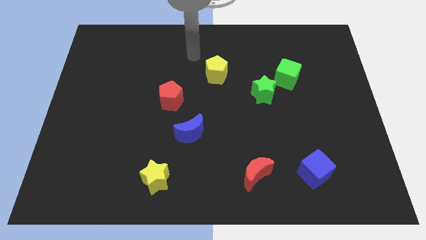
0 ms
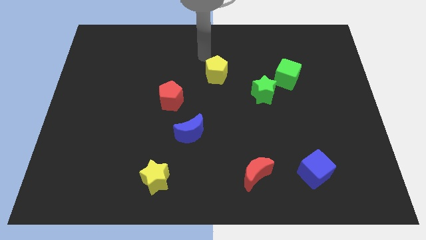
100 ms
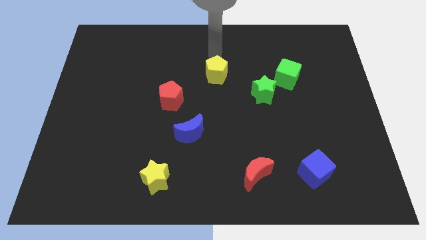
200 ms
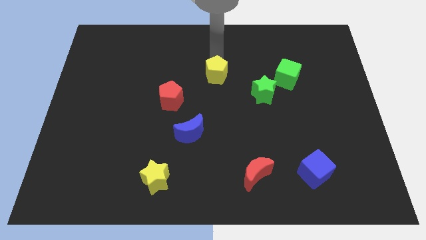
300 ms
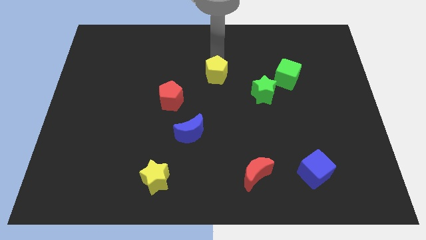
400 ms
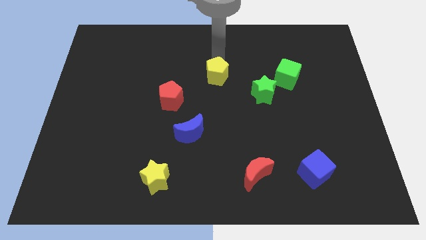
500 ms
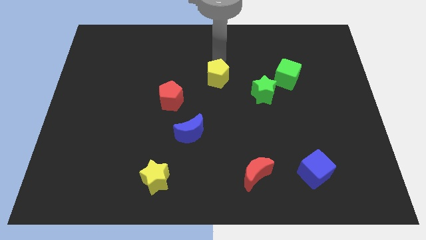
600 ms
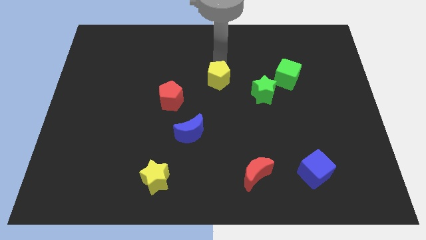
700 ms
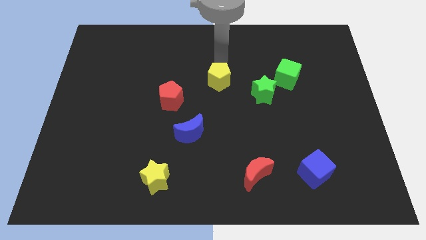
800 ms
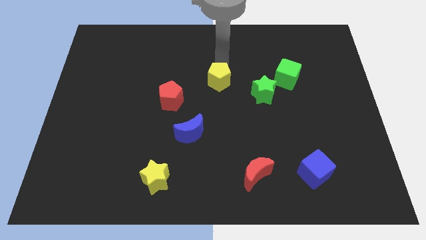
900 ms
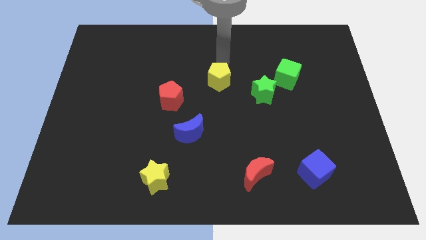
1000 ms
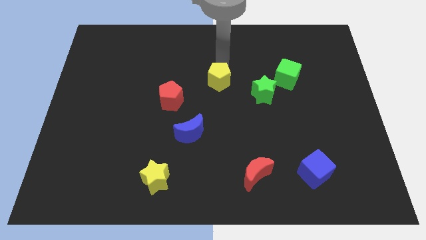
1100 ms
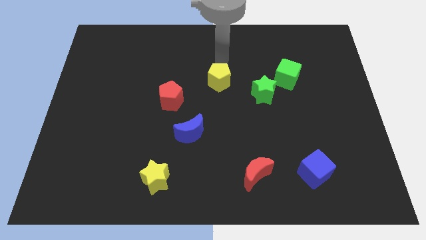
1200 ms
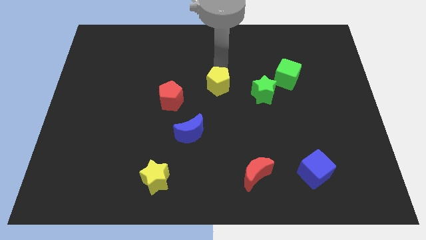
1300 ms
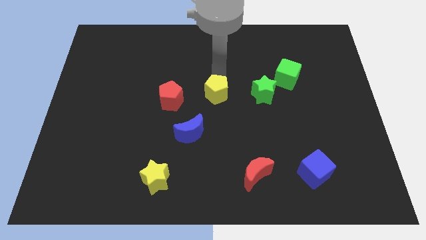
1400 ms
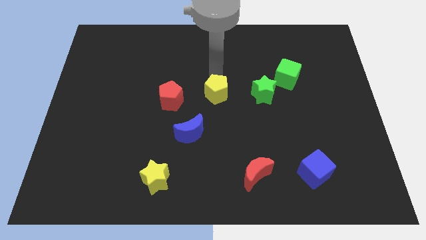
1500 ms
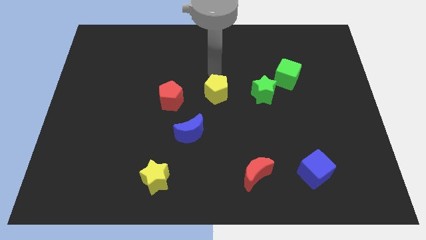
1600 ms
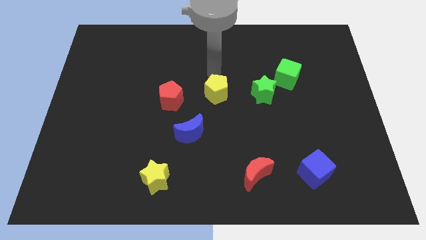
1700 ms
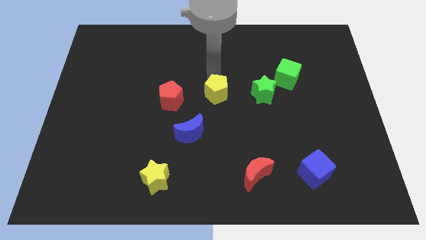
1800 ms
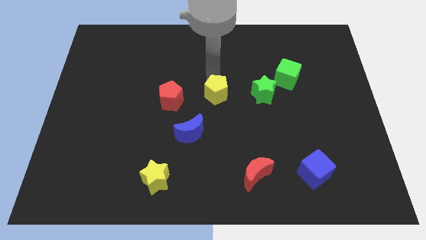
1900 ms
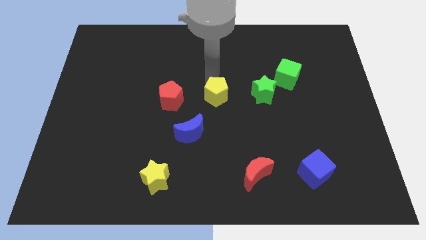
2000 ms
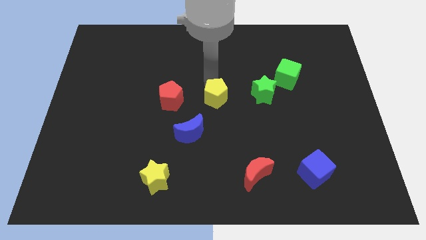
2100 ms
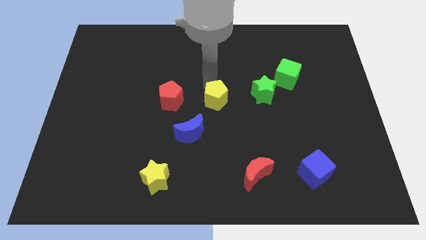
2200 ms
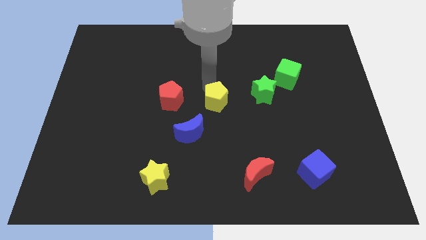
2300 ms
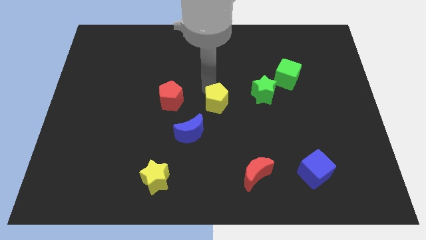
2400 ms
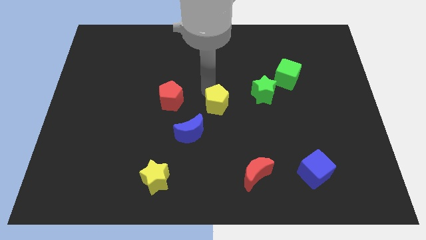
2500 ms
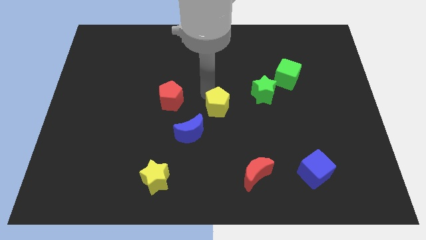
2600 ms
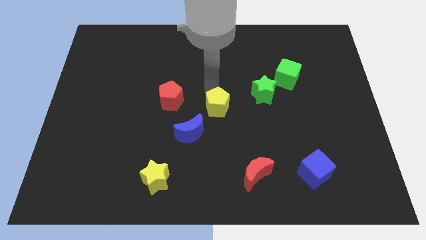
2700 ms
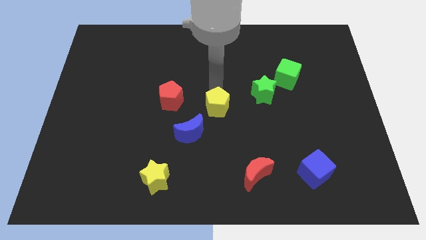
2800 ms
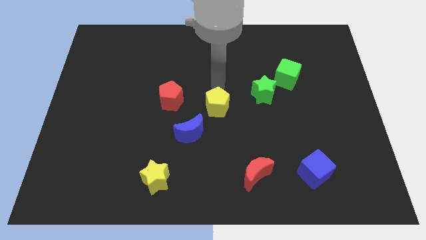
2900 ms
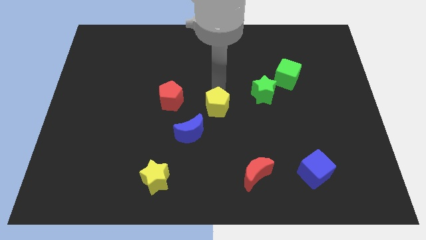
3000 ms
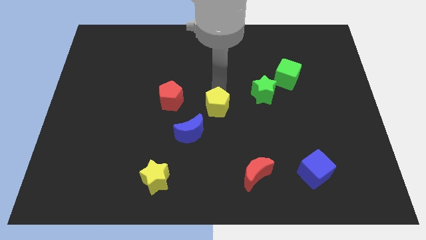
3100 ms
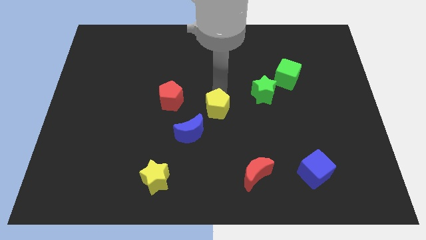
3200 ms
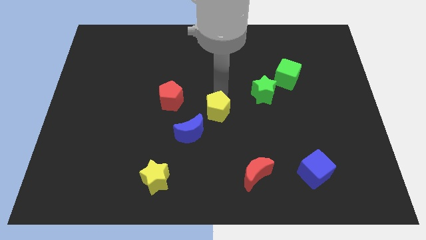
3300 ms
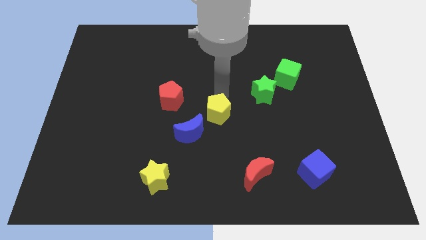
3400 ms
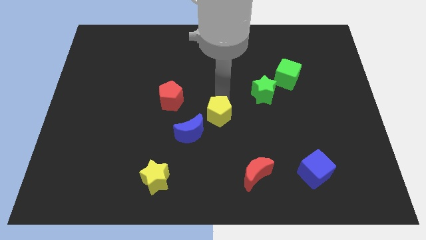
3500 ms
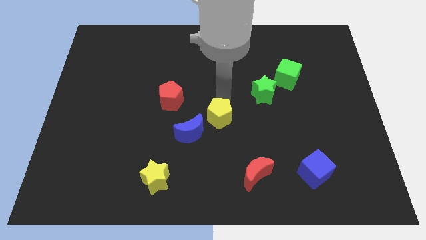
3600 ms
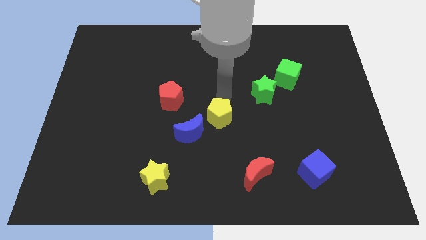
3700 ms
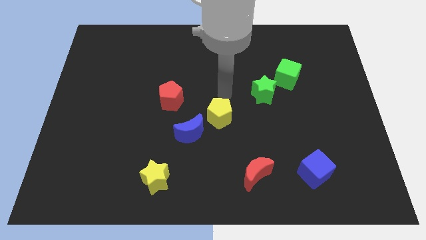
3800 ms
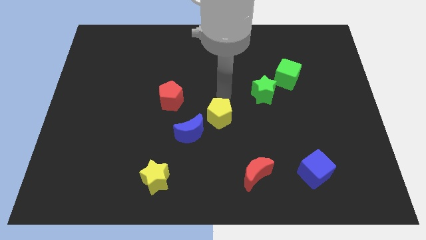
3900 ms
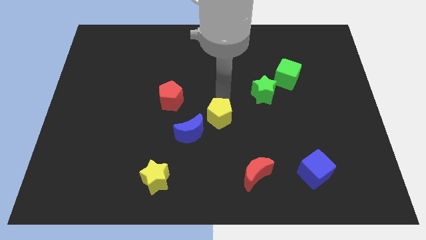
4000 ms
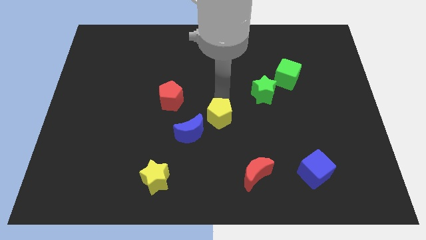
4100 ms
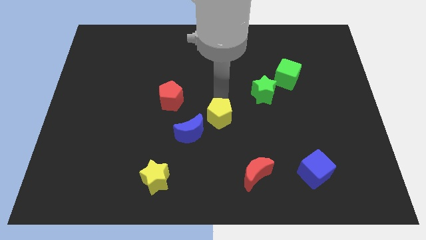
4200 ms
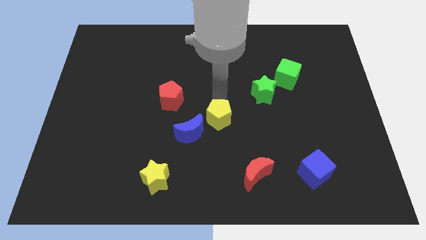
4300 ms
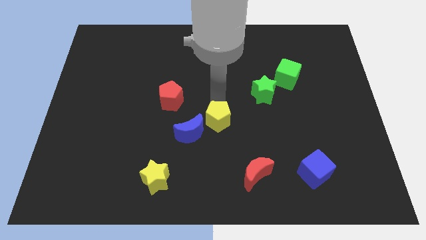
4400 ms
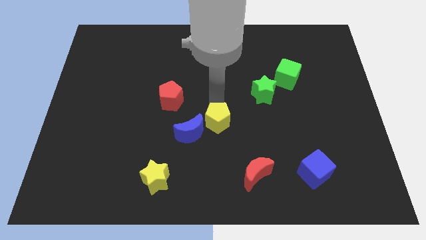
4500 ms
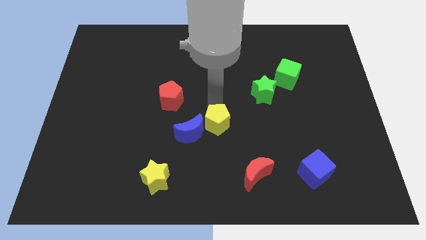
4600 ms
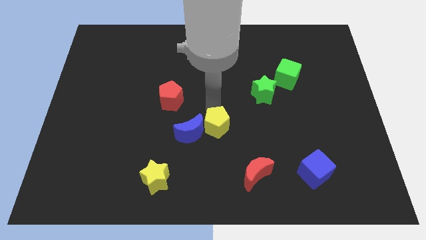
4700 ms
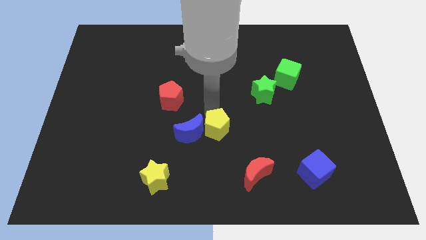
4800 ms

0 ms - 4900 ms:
move the yellow pentagon diagonally down and to the right of the blue moon

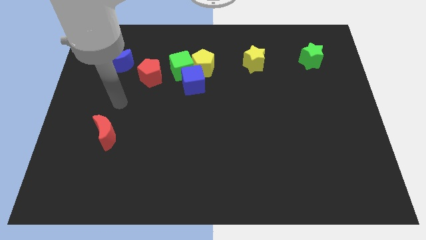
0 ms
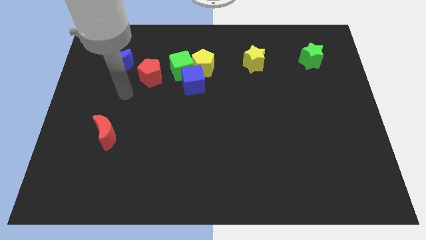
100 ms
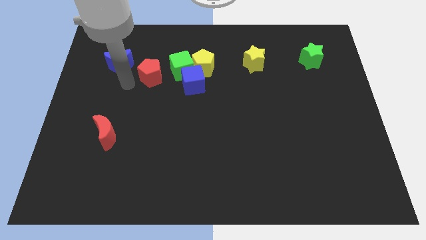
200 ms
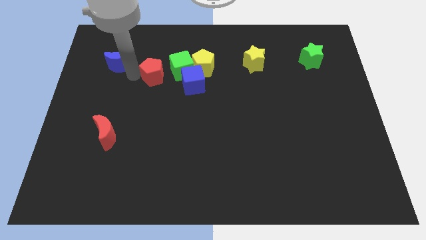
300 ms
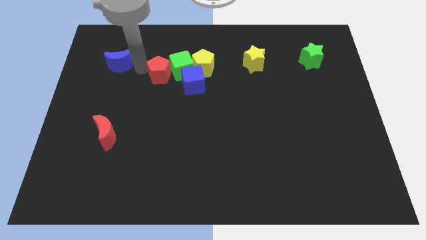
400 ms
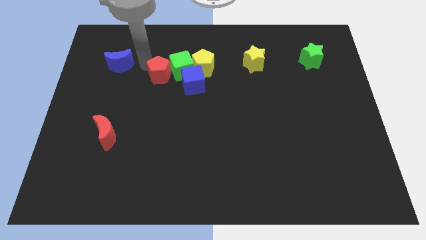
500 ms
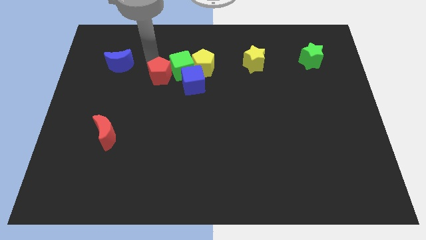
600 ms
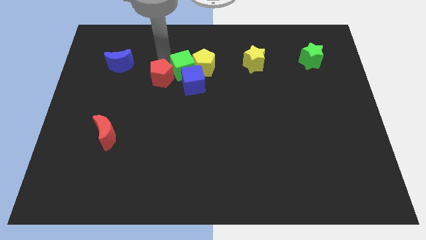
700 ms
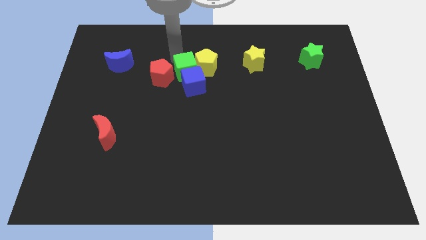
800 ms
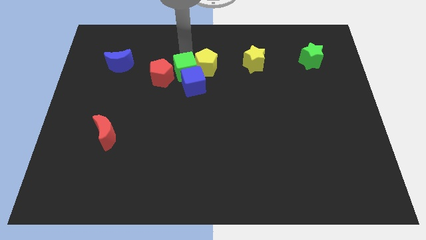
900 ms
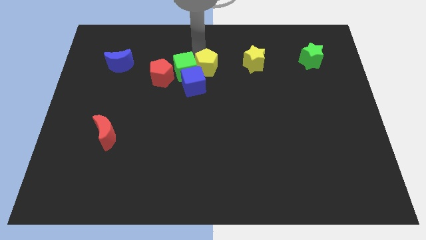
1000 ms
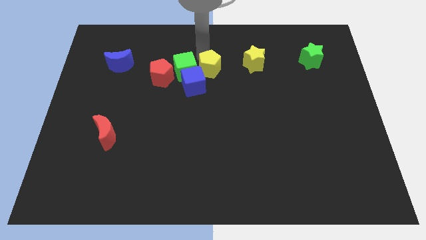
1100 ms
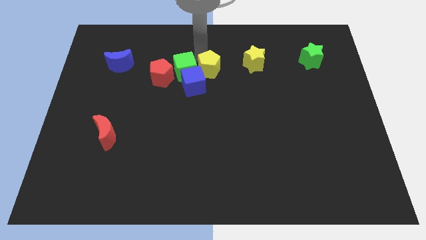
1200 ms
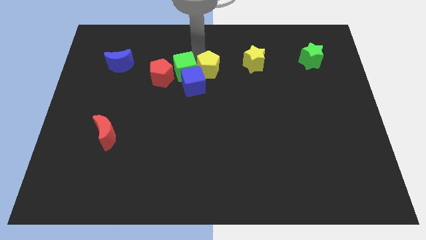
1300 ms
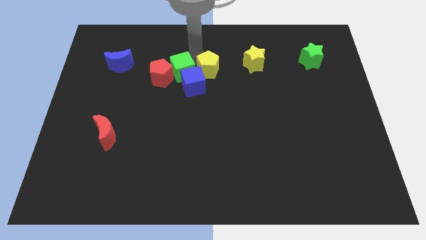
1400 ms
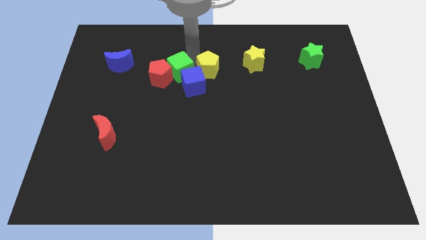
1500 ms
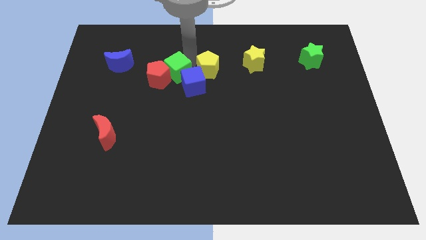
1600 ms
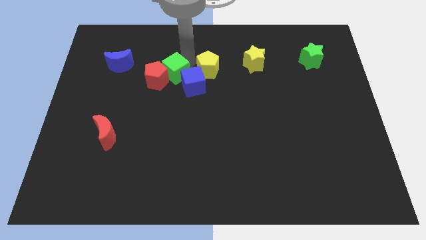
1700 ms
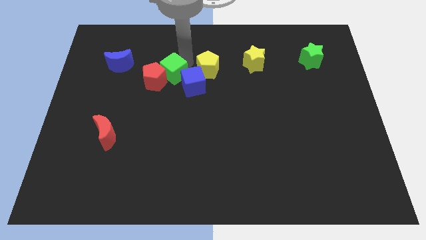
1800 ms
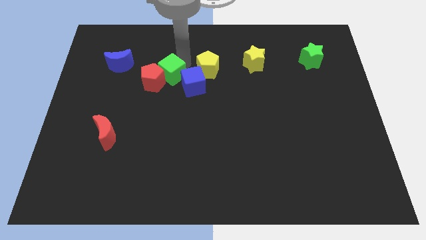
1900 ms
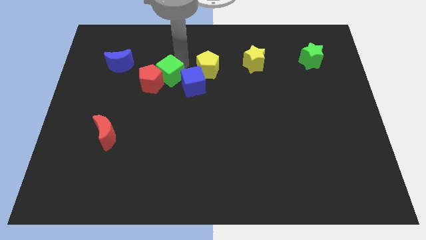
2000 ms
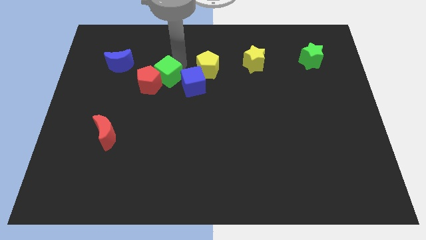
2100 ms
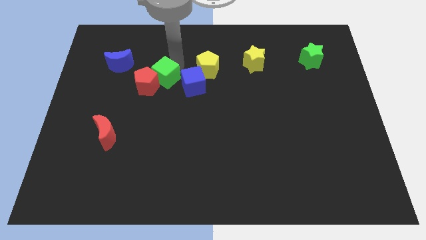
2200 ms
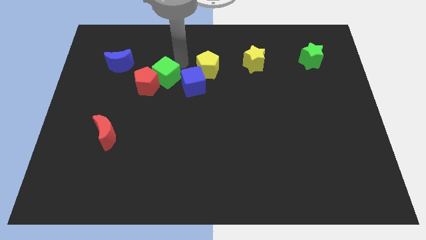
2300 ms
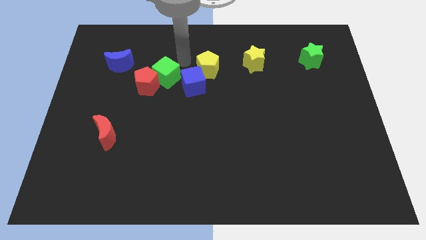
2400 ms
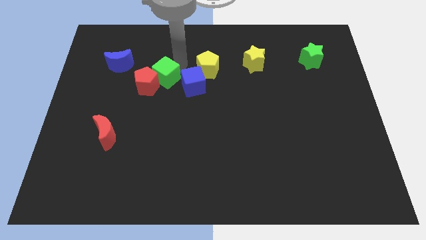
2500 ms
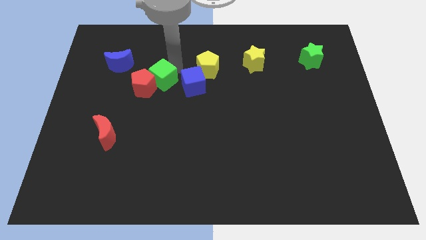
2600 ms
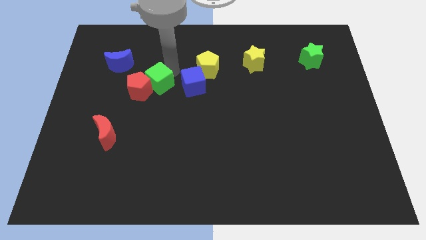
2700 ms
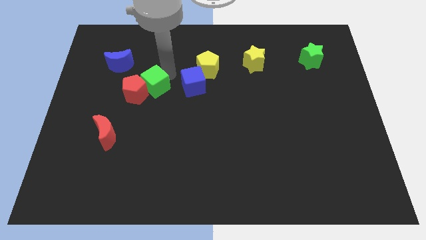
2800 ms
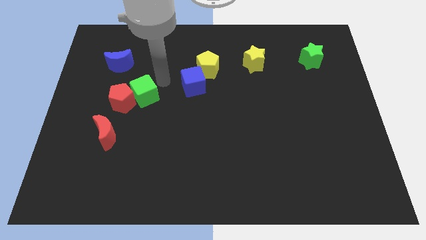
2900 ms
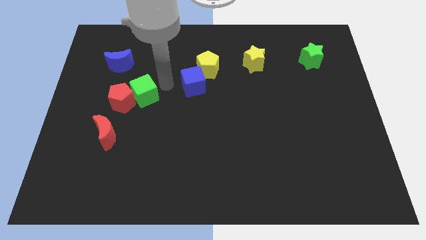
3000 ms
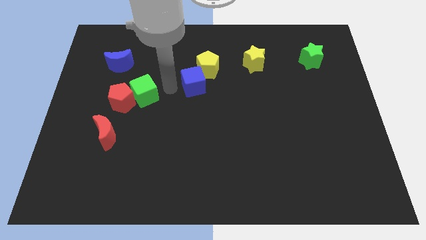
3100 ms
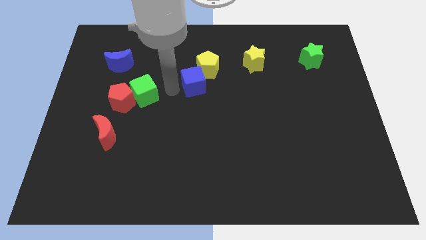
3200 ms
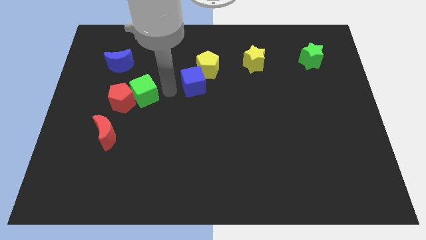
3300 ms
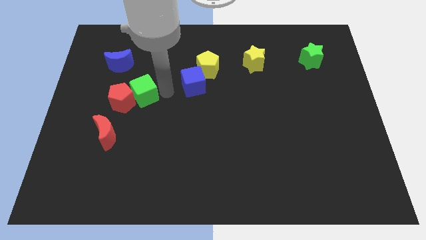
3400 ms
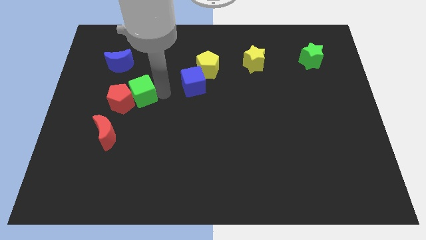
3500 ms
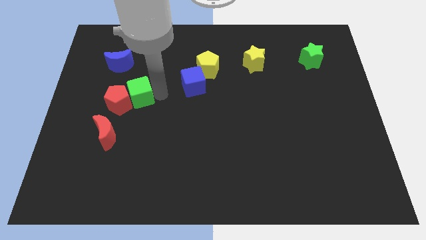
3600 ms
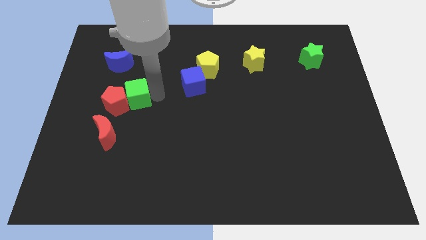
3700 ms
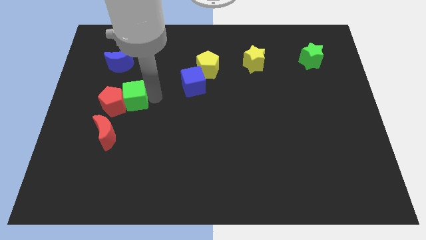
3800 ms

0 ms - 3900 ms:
slide the green cube to the top of the red moon
